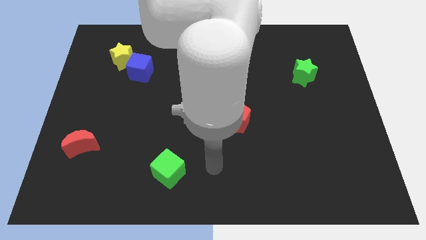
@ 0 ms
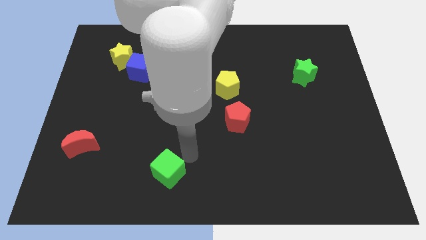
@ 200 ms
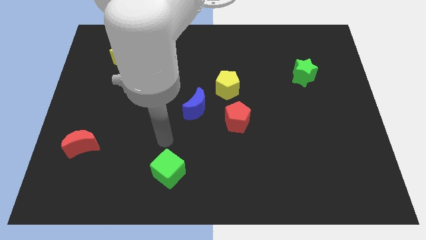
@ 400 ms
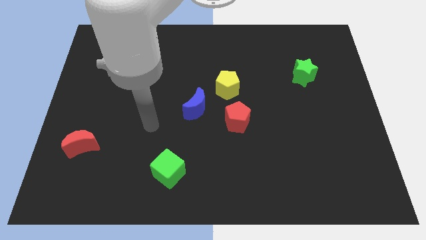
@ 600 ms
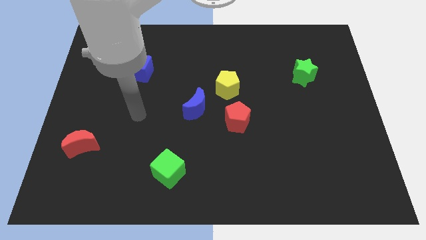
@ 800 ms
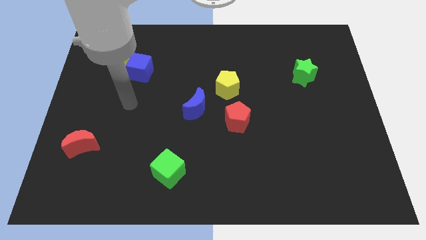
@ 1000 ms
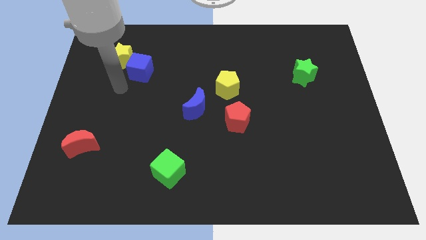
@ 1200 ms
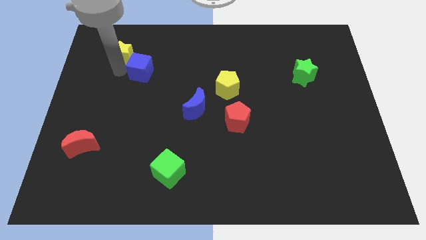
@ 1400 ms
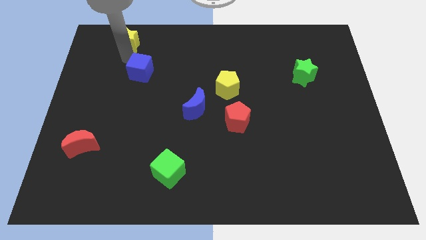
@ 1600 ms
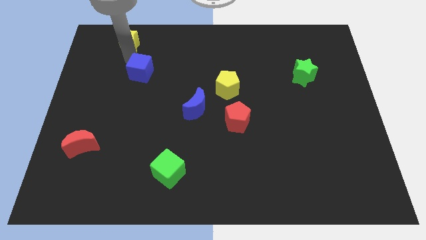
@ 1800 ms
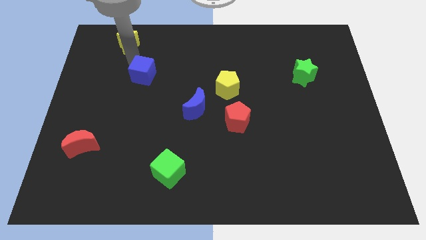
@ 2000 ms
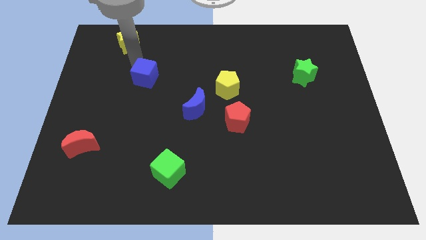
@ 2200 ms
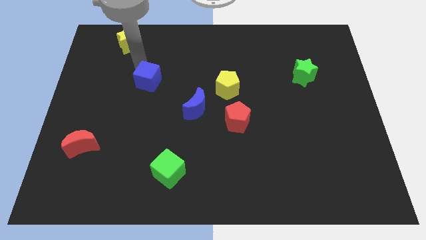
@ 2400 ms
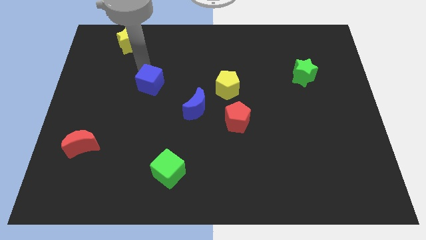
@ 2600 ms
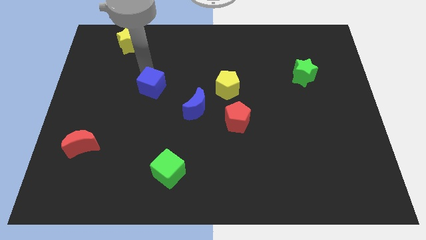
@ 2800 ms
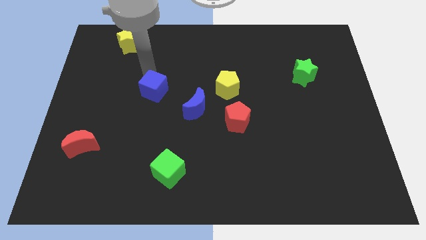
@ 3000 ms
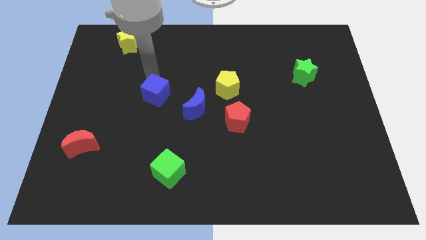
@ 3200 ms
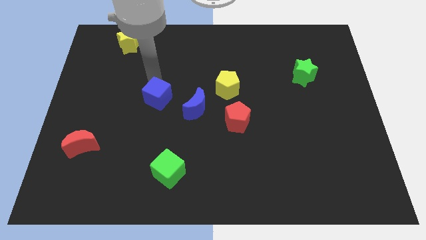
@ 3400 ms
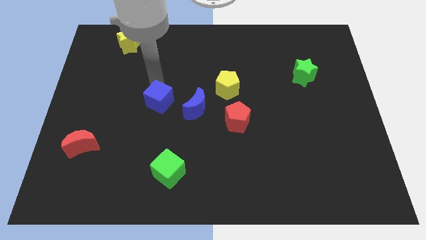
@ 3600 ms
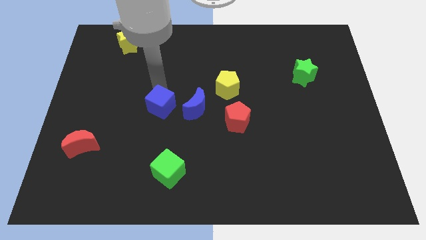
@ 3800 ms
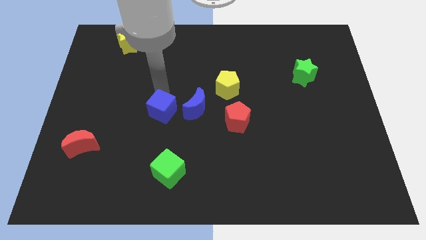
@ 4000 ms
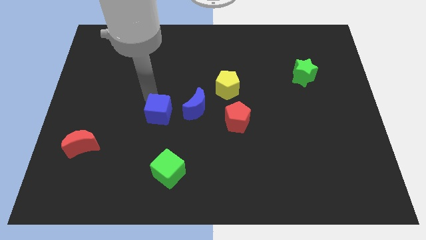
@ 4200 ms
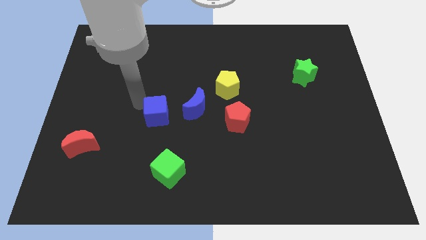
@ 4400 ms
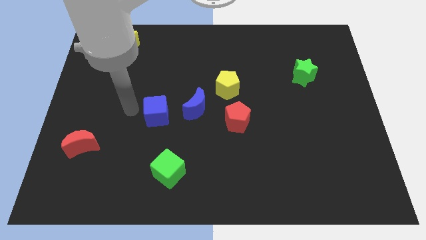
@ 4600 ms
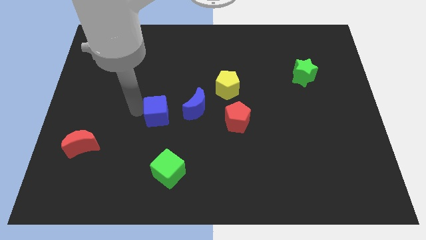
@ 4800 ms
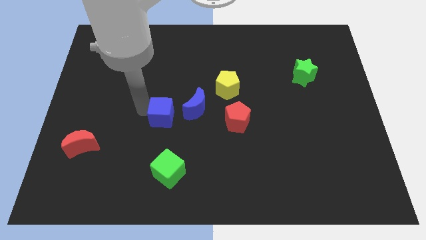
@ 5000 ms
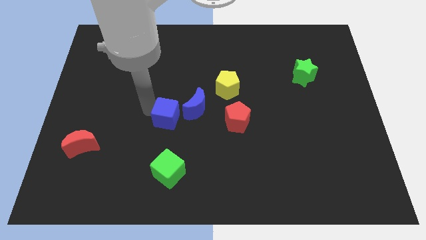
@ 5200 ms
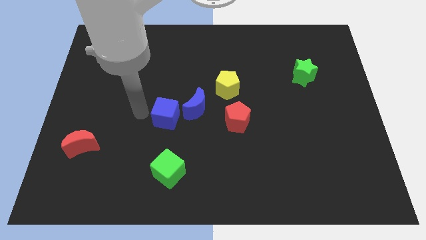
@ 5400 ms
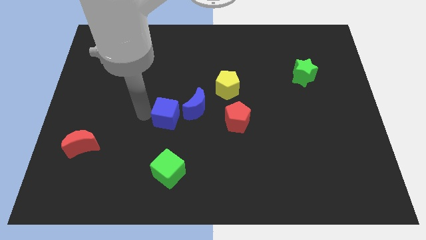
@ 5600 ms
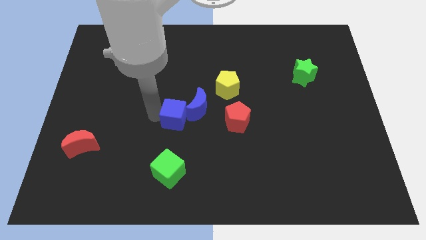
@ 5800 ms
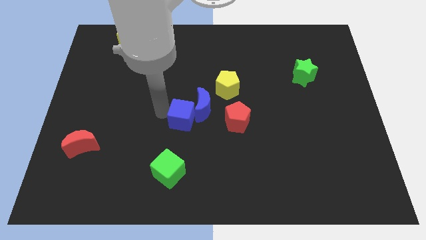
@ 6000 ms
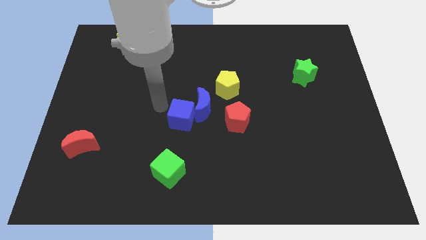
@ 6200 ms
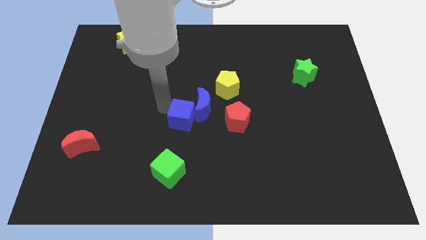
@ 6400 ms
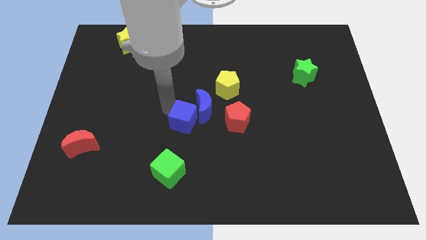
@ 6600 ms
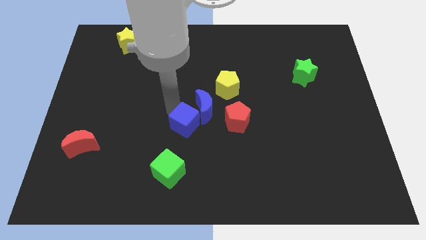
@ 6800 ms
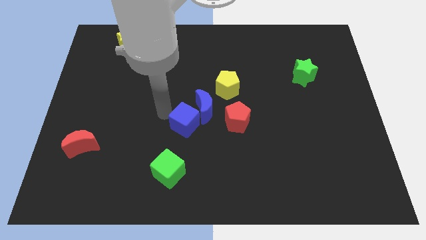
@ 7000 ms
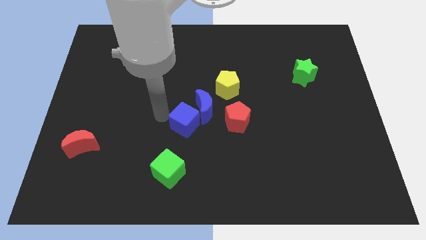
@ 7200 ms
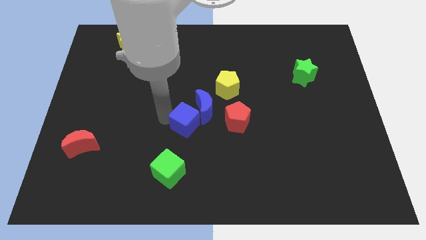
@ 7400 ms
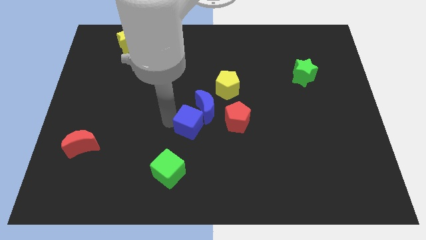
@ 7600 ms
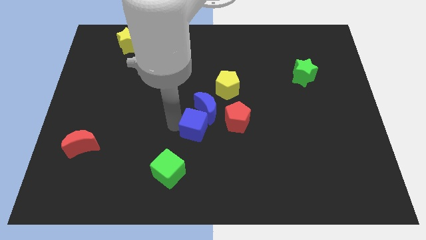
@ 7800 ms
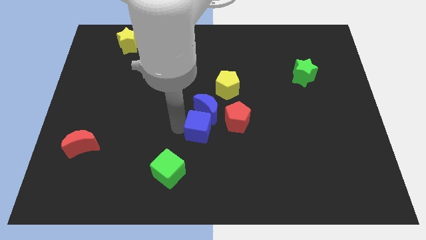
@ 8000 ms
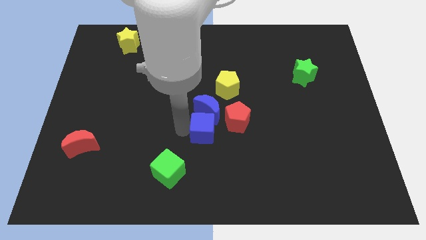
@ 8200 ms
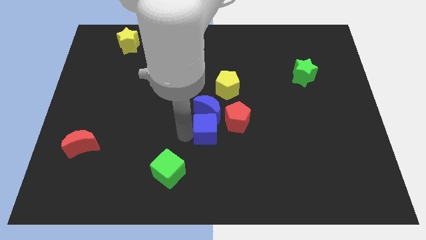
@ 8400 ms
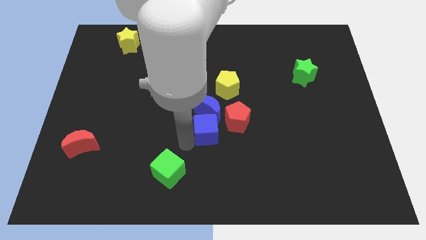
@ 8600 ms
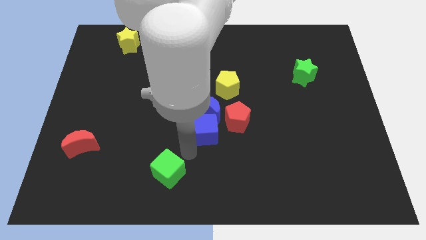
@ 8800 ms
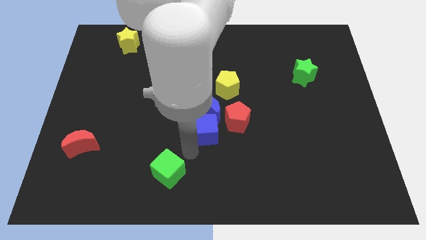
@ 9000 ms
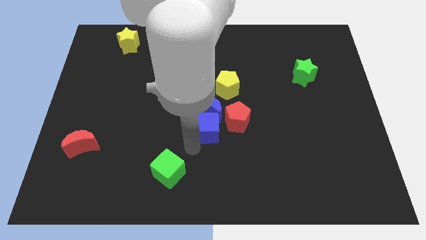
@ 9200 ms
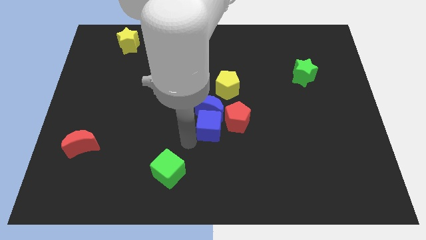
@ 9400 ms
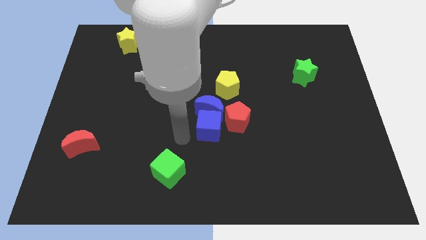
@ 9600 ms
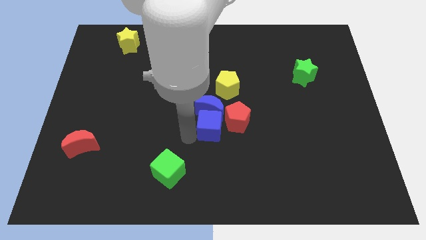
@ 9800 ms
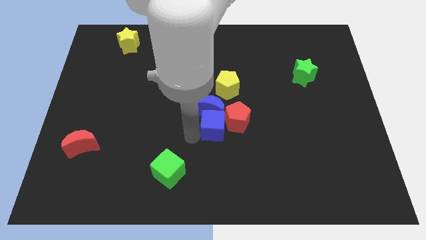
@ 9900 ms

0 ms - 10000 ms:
move the blue cube towards the red pentagon

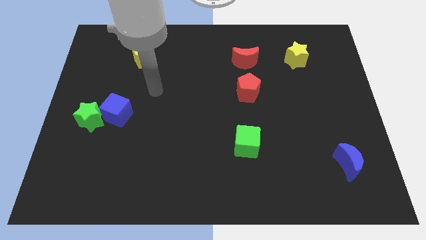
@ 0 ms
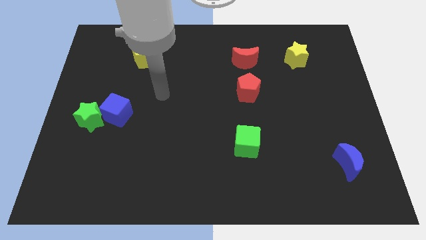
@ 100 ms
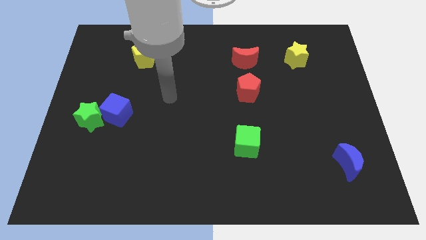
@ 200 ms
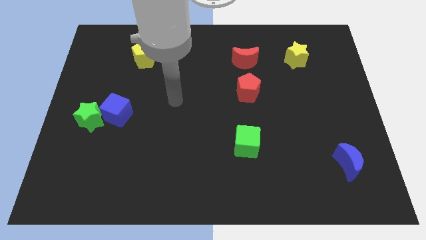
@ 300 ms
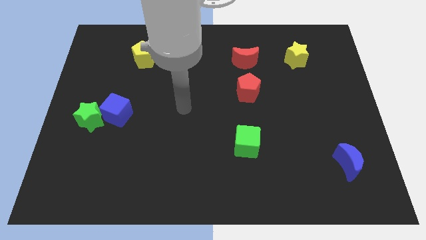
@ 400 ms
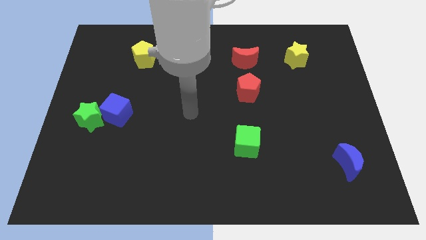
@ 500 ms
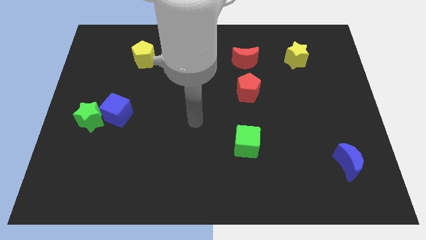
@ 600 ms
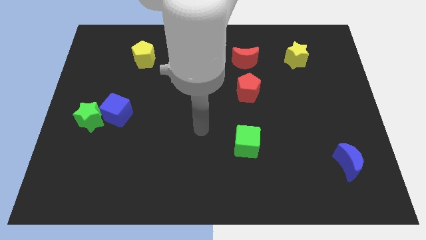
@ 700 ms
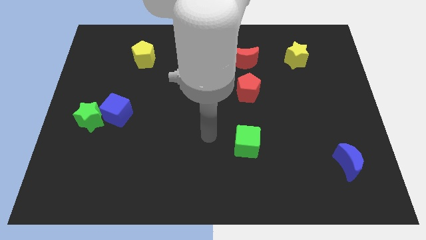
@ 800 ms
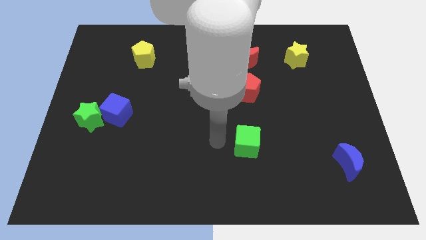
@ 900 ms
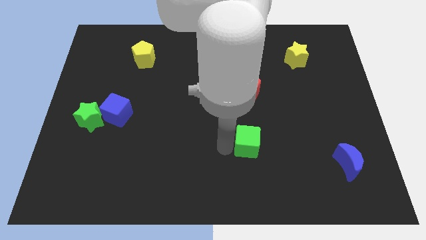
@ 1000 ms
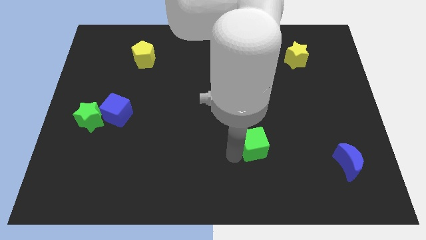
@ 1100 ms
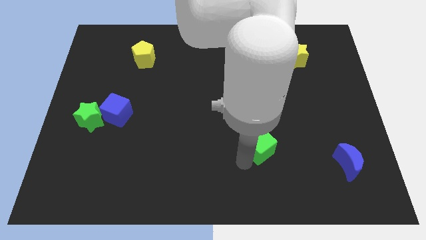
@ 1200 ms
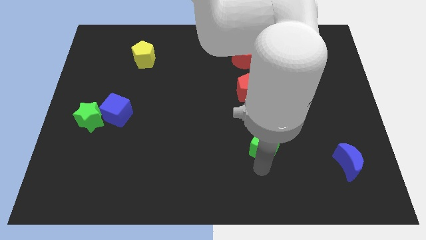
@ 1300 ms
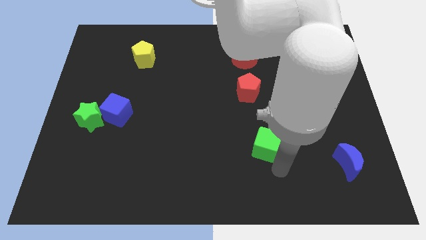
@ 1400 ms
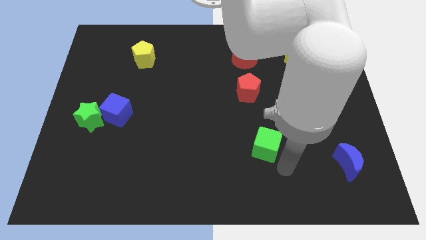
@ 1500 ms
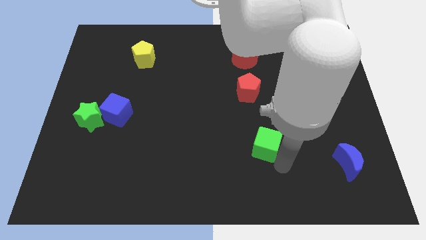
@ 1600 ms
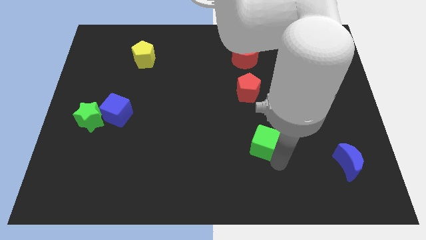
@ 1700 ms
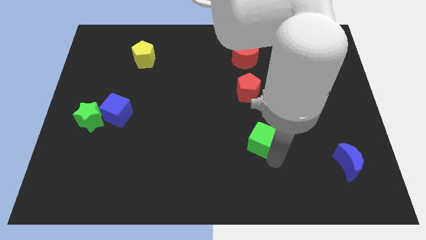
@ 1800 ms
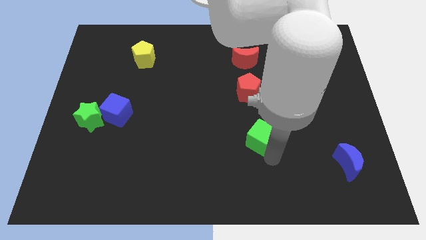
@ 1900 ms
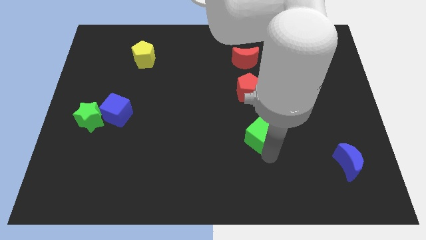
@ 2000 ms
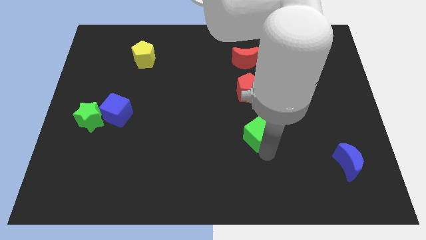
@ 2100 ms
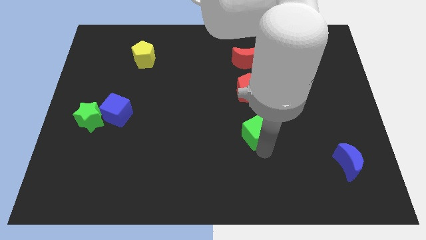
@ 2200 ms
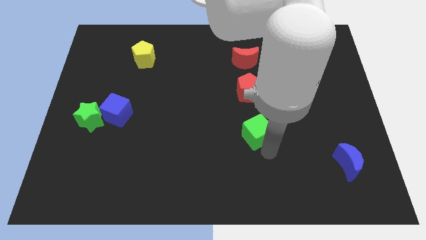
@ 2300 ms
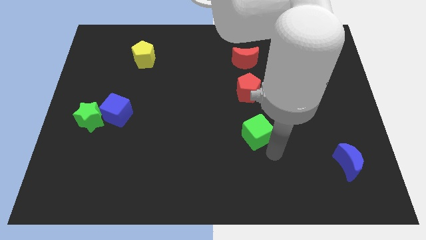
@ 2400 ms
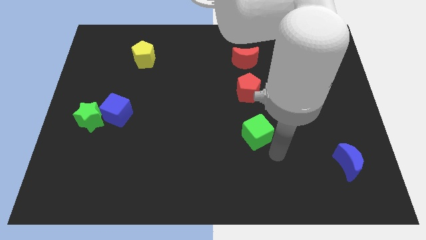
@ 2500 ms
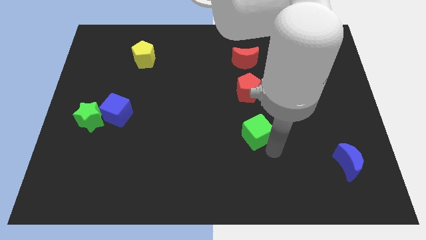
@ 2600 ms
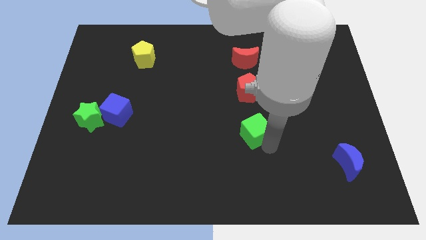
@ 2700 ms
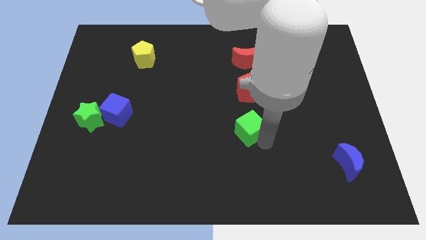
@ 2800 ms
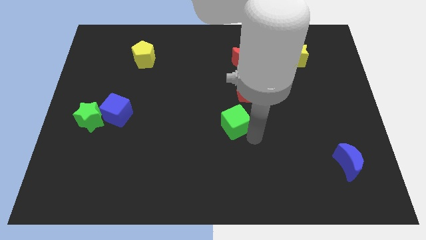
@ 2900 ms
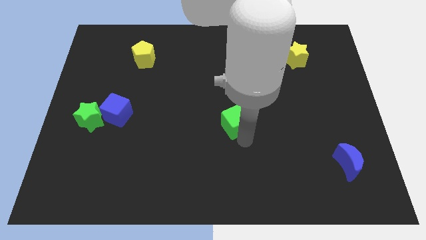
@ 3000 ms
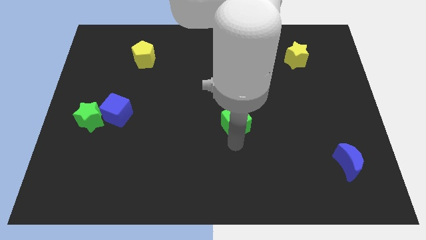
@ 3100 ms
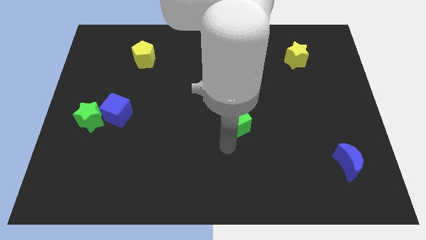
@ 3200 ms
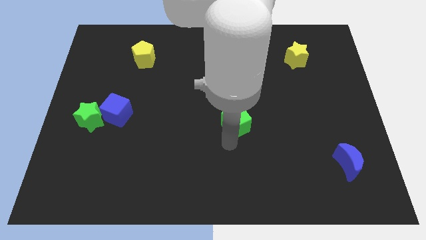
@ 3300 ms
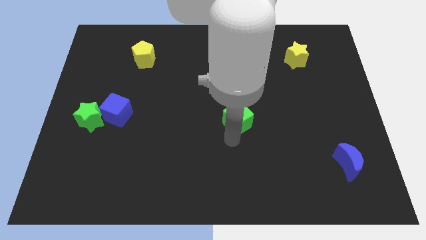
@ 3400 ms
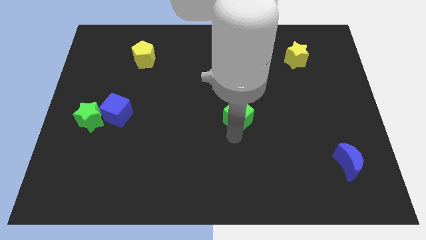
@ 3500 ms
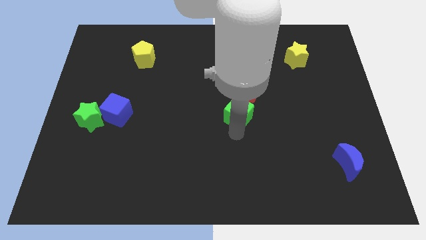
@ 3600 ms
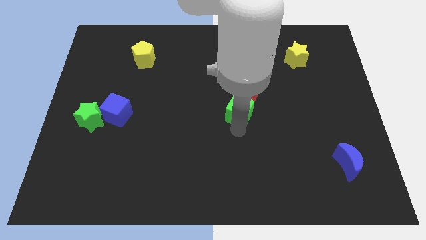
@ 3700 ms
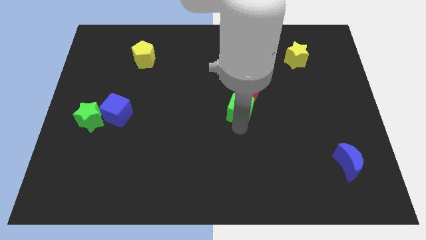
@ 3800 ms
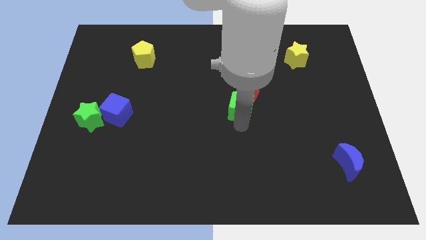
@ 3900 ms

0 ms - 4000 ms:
slide the green cube close to the red pentagon
